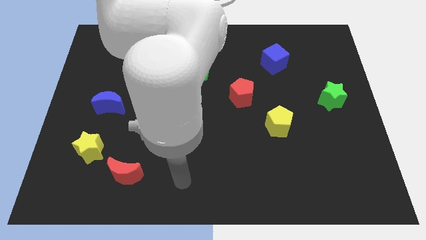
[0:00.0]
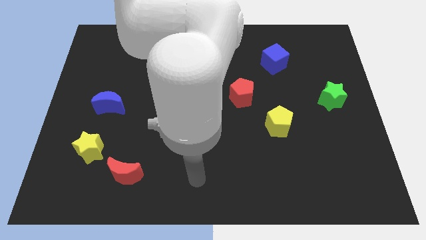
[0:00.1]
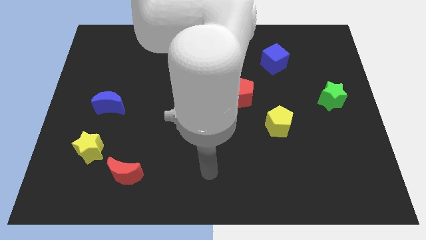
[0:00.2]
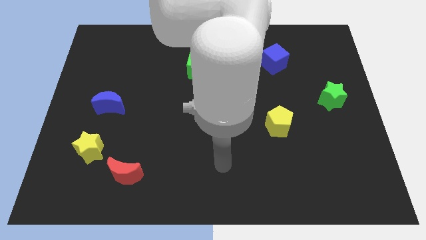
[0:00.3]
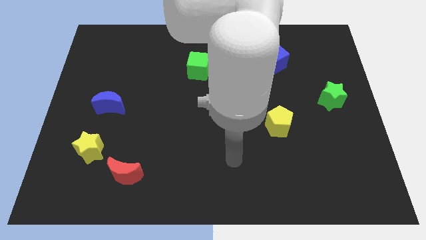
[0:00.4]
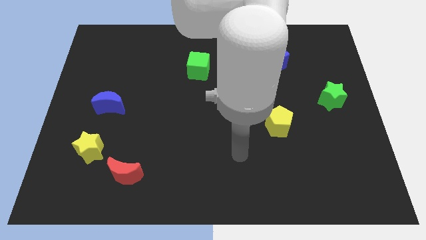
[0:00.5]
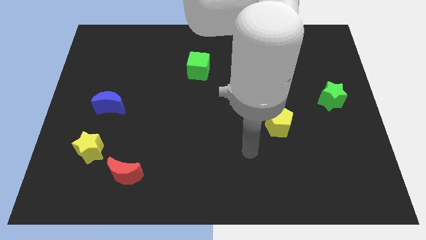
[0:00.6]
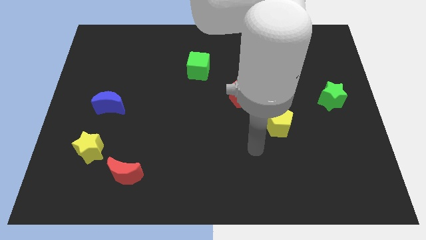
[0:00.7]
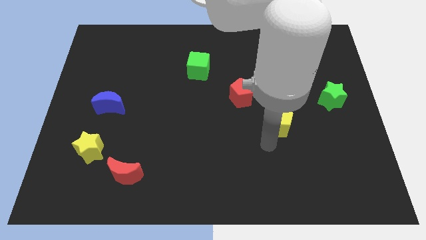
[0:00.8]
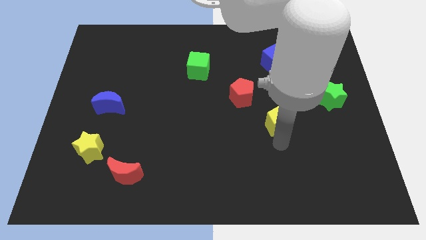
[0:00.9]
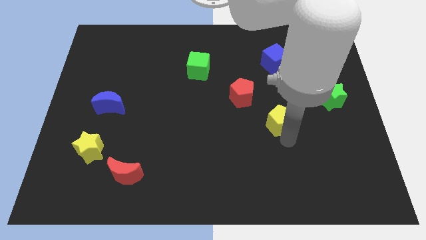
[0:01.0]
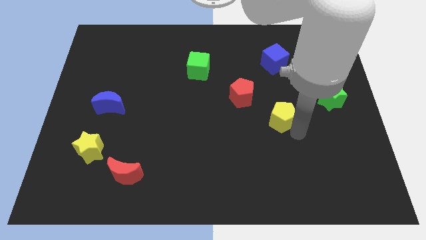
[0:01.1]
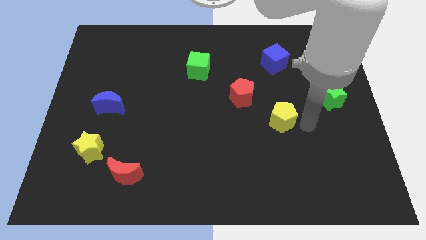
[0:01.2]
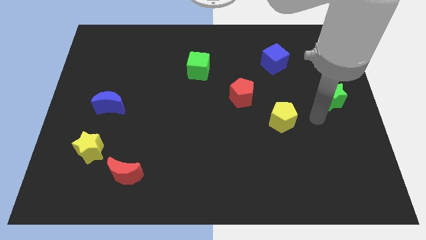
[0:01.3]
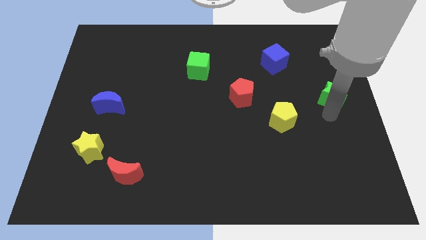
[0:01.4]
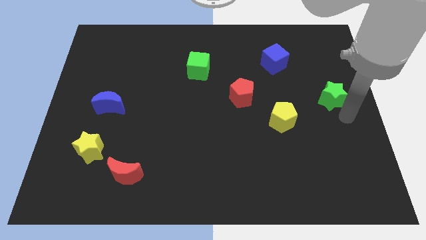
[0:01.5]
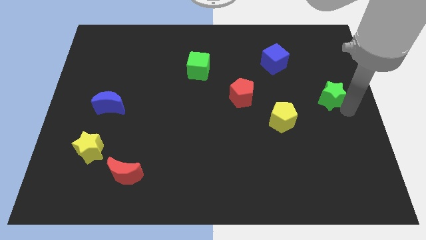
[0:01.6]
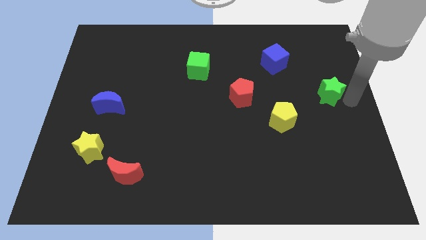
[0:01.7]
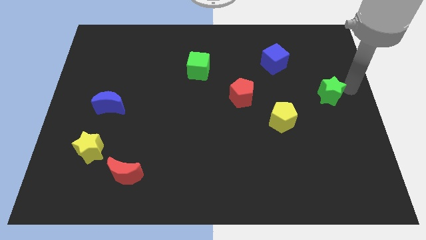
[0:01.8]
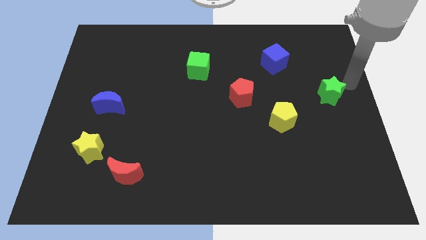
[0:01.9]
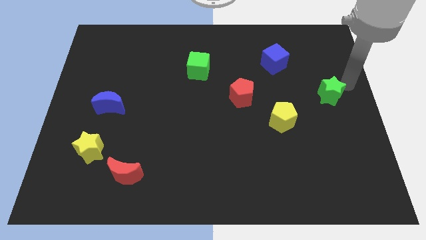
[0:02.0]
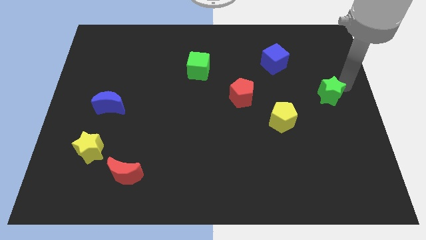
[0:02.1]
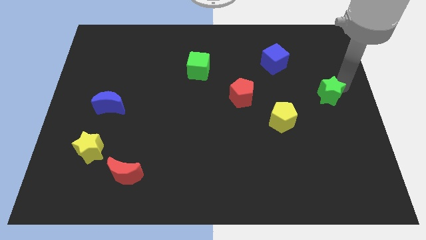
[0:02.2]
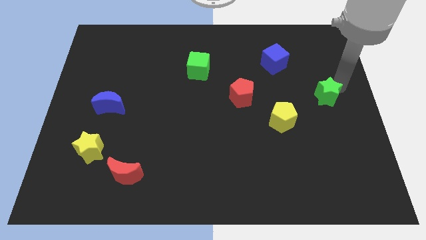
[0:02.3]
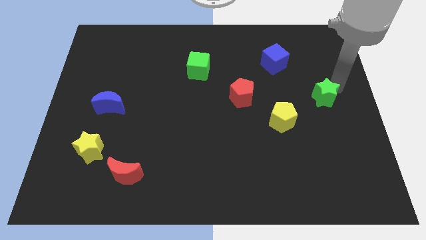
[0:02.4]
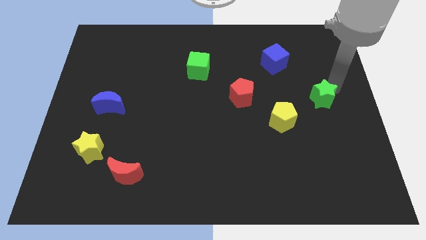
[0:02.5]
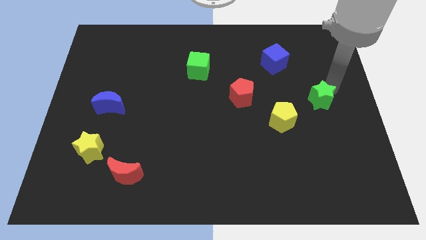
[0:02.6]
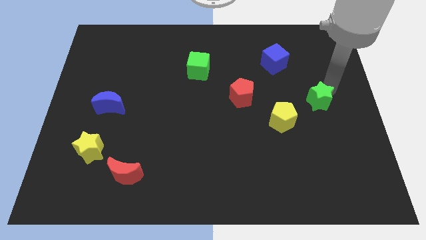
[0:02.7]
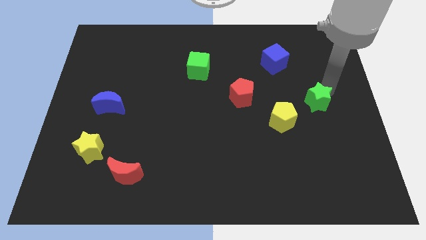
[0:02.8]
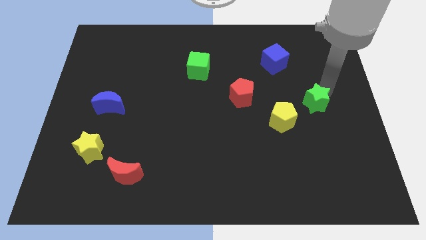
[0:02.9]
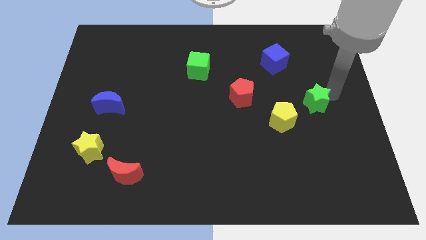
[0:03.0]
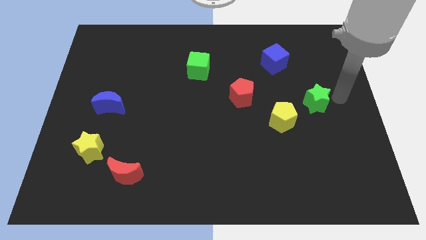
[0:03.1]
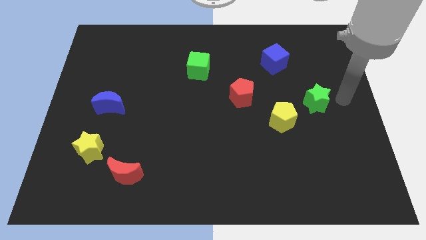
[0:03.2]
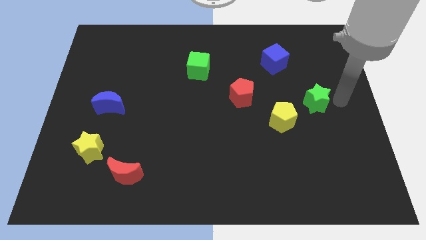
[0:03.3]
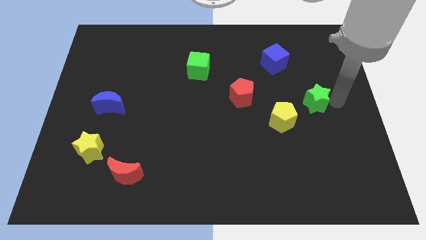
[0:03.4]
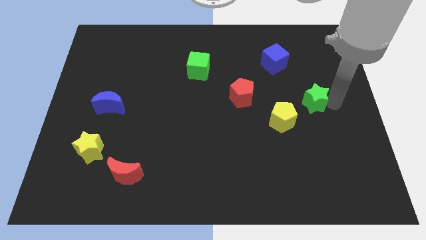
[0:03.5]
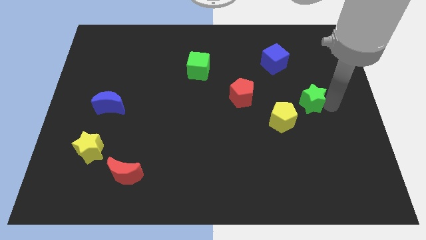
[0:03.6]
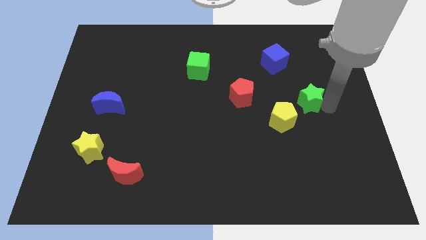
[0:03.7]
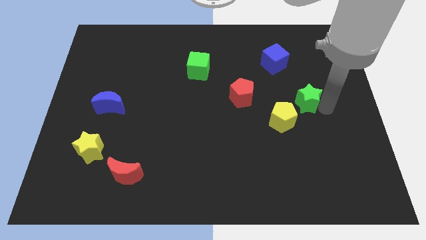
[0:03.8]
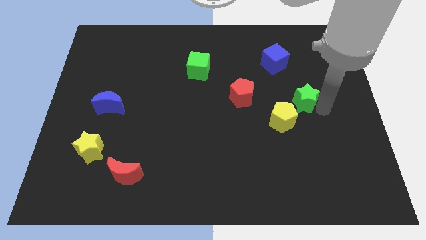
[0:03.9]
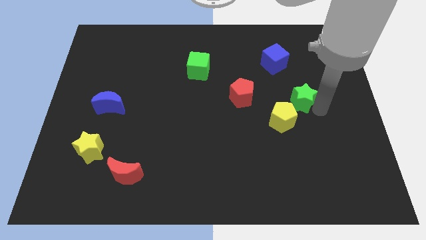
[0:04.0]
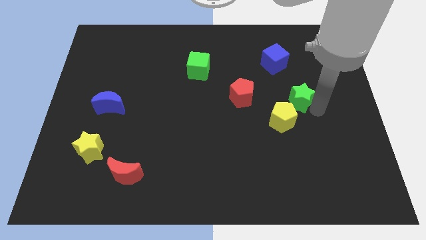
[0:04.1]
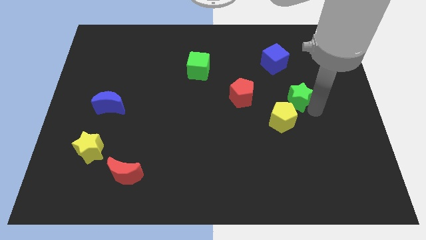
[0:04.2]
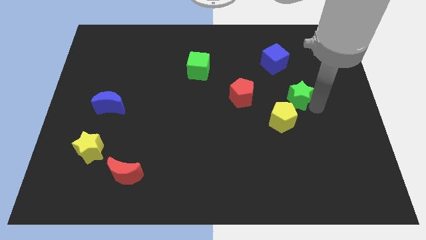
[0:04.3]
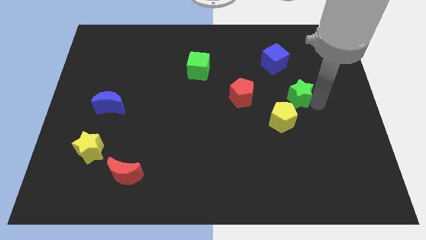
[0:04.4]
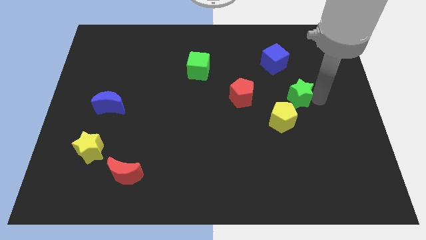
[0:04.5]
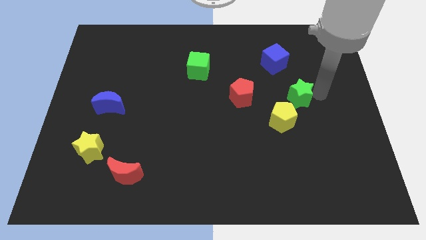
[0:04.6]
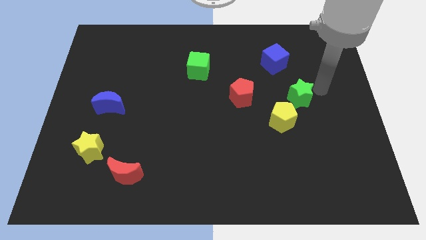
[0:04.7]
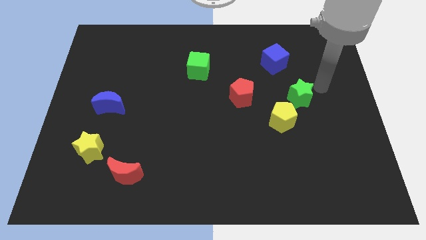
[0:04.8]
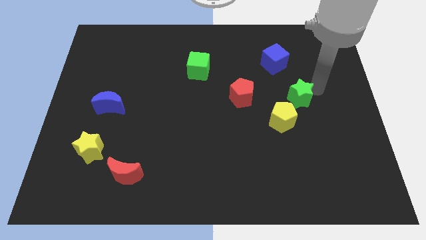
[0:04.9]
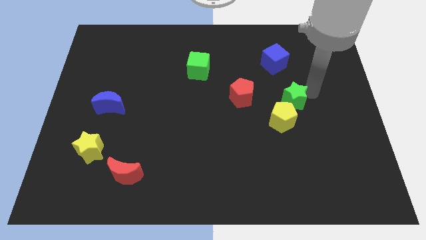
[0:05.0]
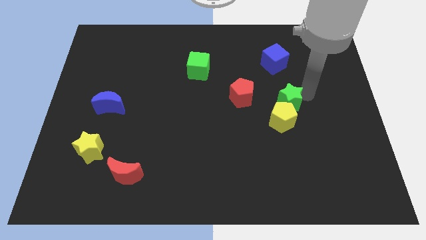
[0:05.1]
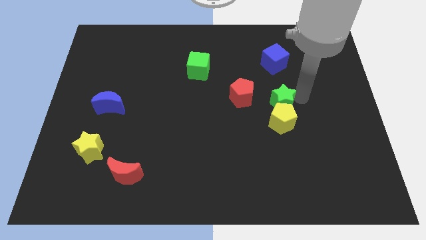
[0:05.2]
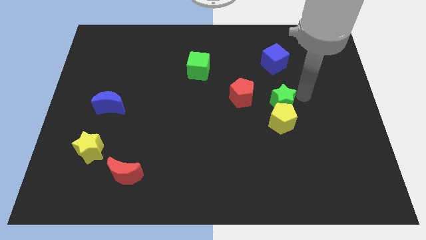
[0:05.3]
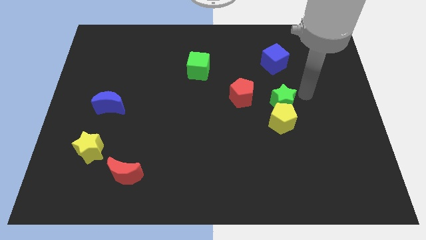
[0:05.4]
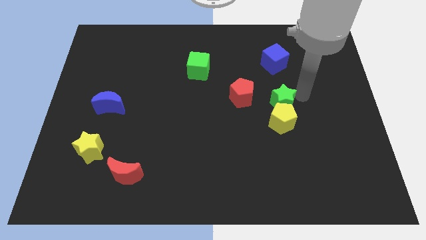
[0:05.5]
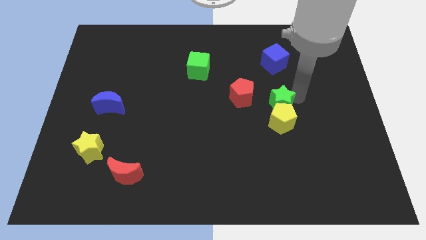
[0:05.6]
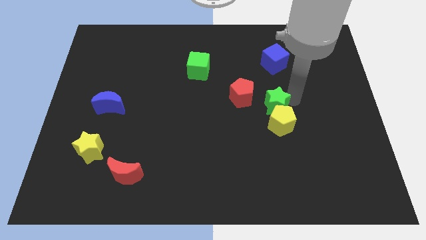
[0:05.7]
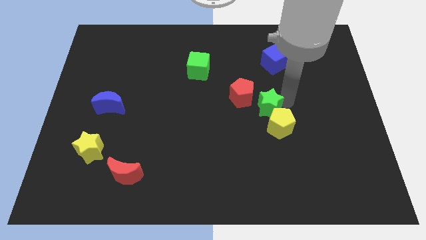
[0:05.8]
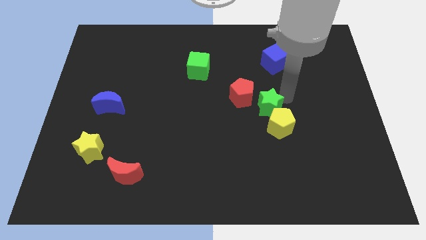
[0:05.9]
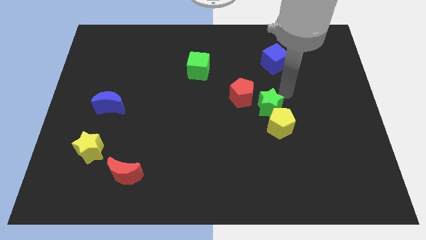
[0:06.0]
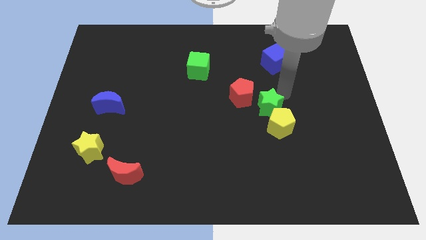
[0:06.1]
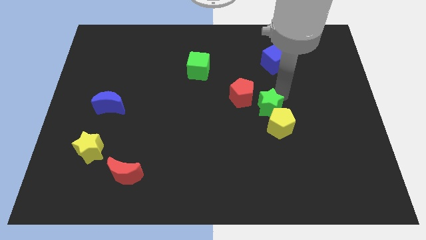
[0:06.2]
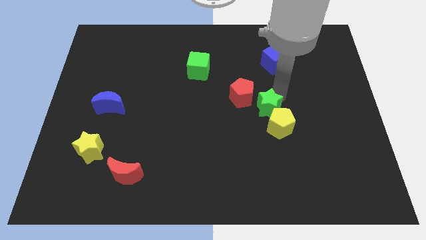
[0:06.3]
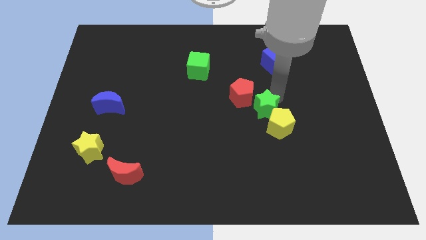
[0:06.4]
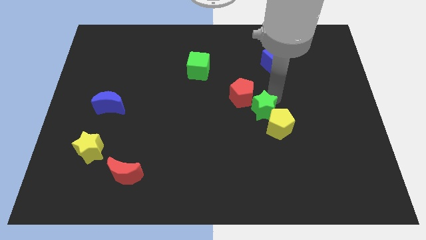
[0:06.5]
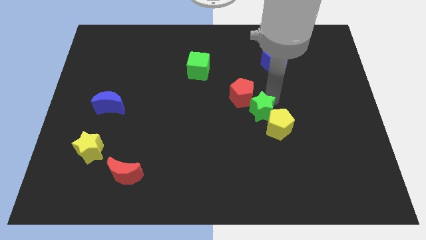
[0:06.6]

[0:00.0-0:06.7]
move the green star below the red pentagon
